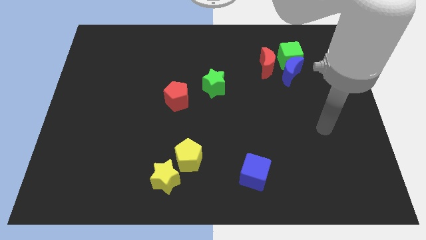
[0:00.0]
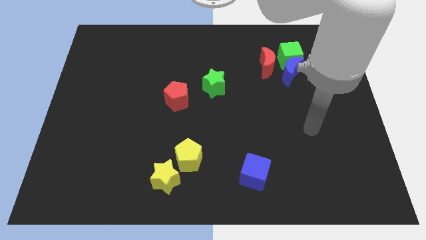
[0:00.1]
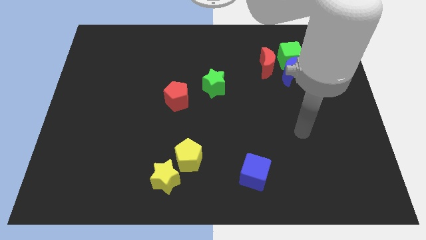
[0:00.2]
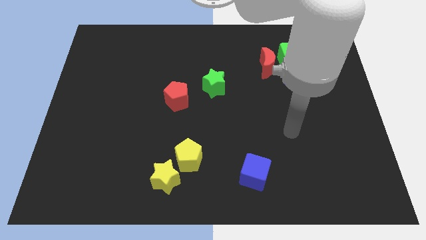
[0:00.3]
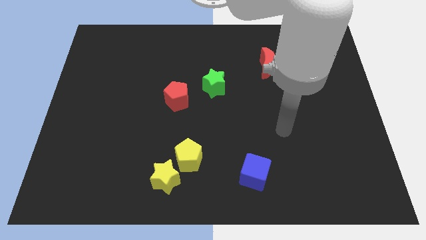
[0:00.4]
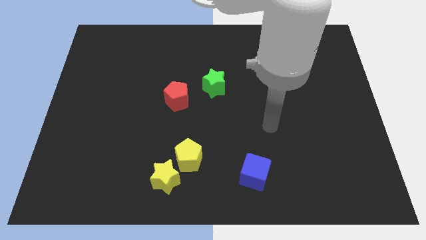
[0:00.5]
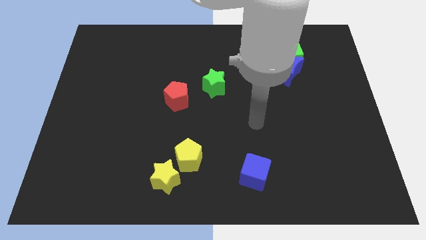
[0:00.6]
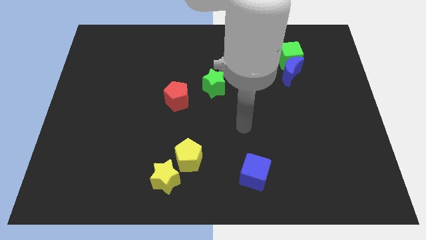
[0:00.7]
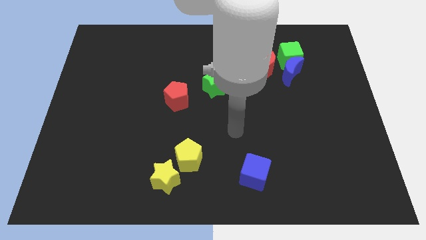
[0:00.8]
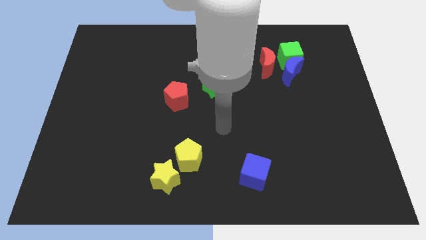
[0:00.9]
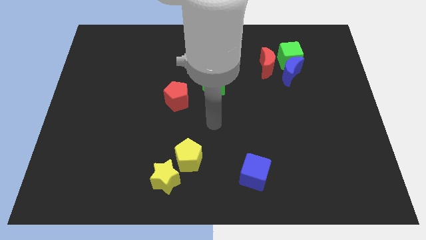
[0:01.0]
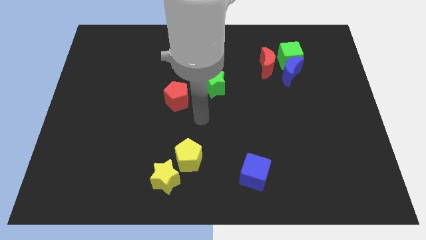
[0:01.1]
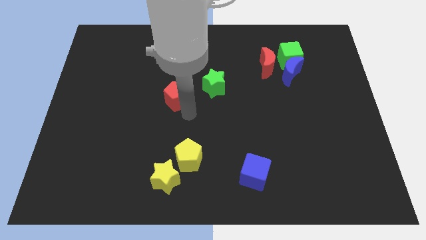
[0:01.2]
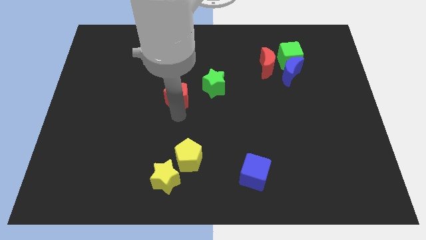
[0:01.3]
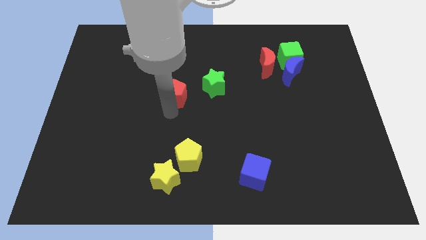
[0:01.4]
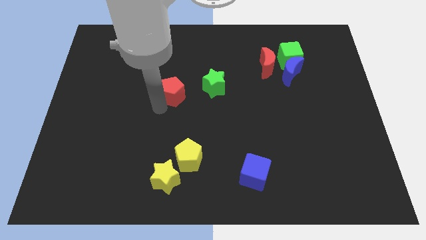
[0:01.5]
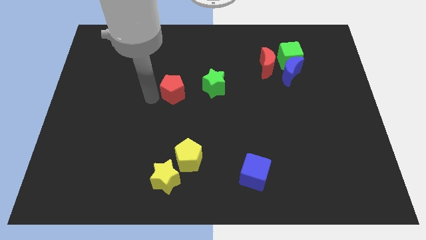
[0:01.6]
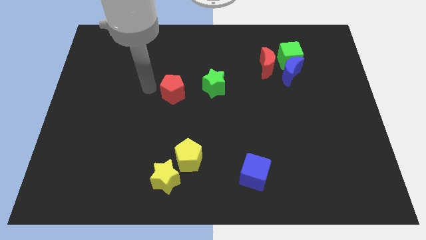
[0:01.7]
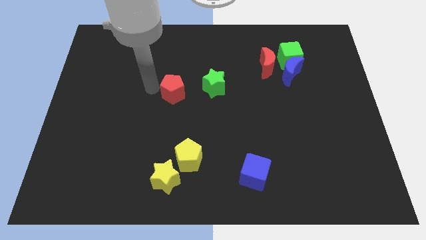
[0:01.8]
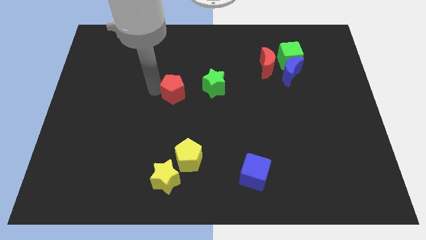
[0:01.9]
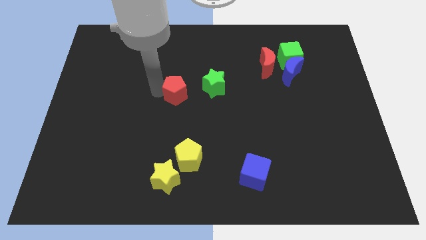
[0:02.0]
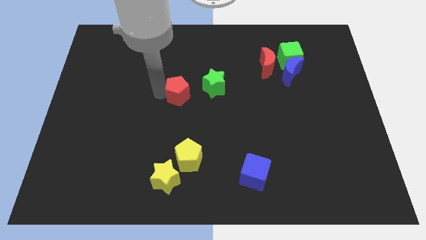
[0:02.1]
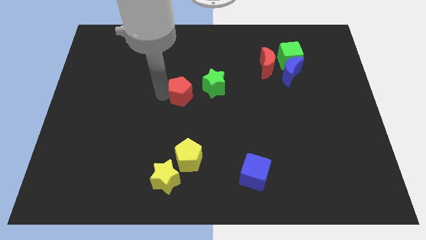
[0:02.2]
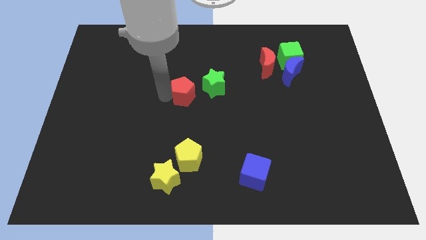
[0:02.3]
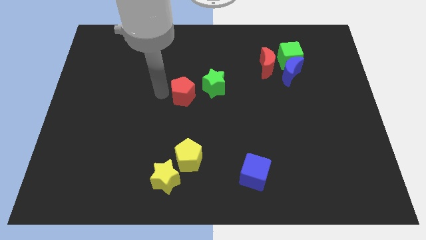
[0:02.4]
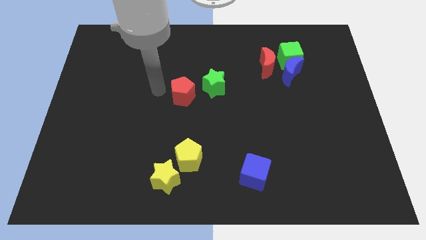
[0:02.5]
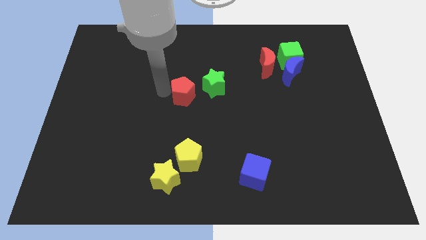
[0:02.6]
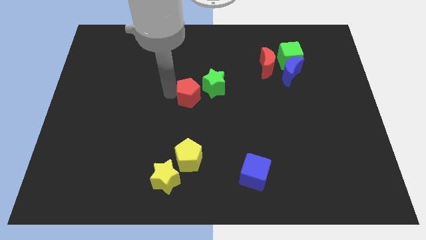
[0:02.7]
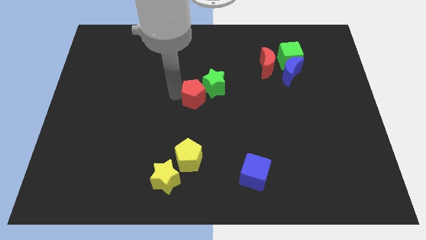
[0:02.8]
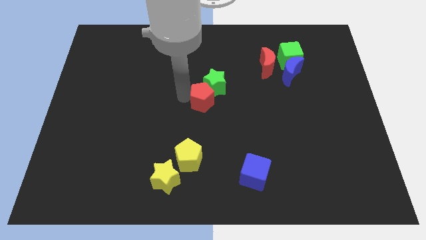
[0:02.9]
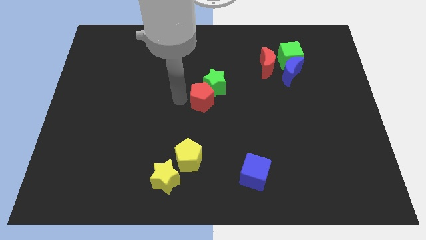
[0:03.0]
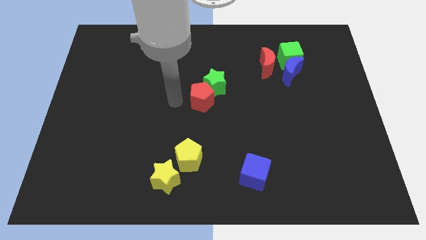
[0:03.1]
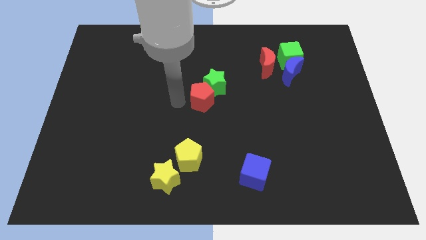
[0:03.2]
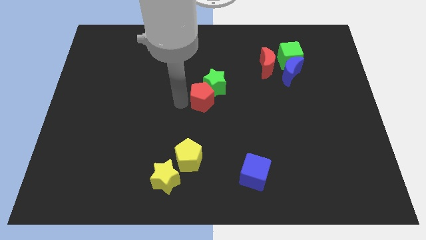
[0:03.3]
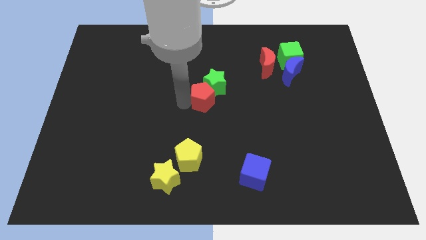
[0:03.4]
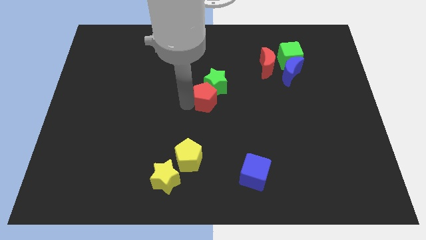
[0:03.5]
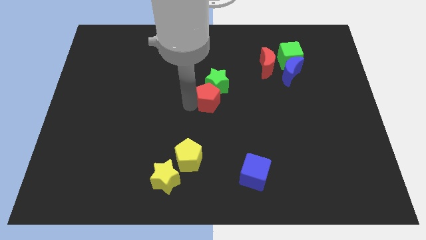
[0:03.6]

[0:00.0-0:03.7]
move the red pentagon a bit right

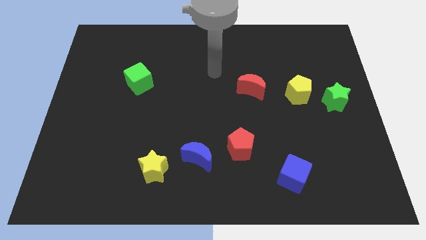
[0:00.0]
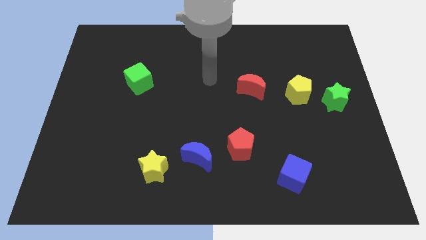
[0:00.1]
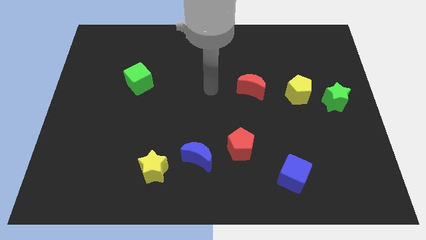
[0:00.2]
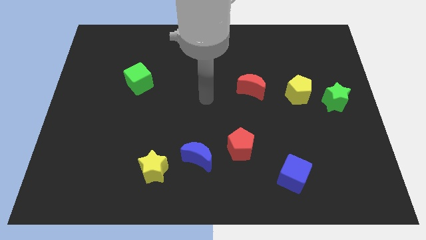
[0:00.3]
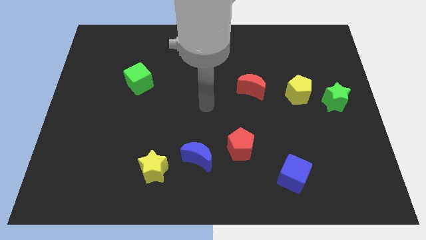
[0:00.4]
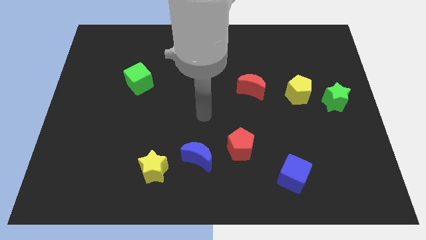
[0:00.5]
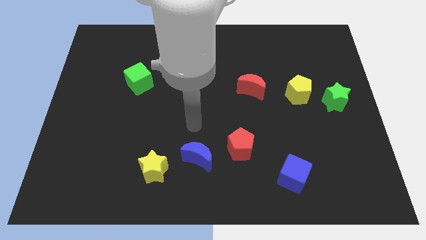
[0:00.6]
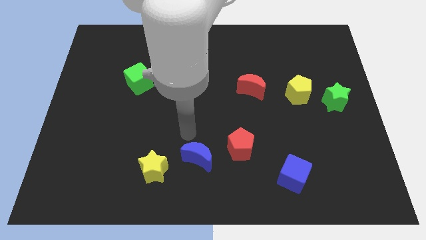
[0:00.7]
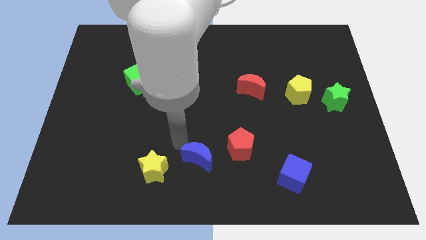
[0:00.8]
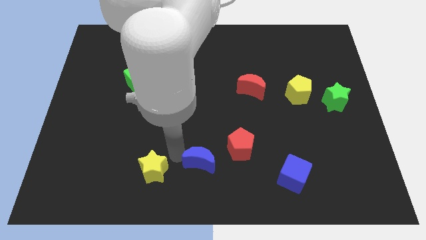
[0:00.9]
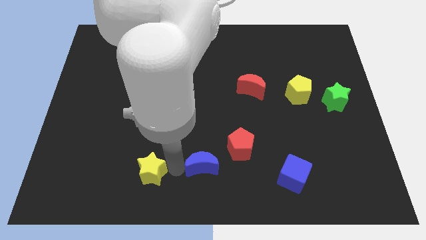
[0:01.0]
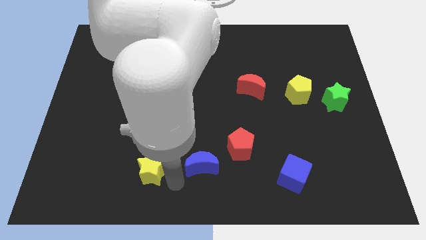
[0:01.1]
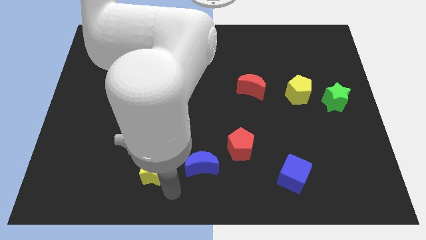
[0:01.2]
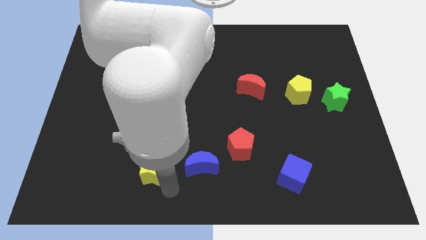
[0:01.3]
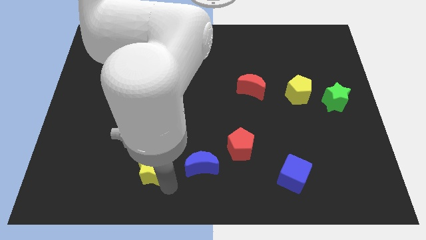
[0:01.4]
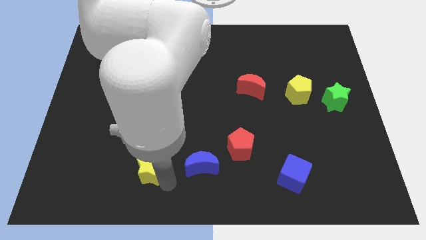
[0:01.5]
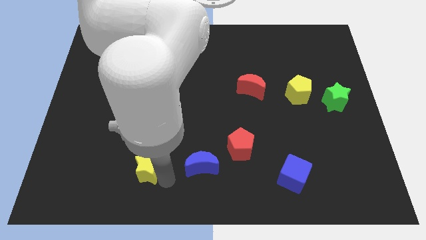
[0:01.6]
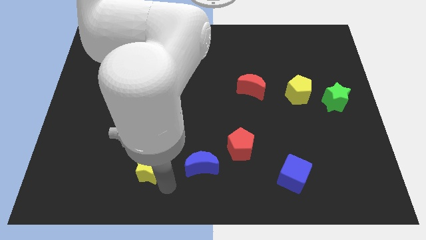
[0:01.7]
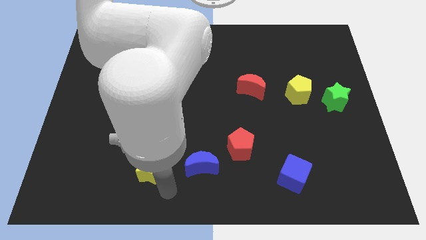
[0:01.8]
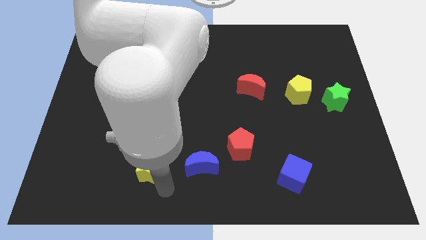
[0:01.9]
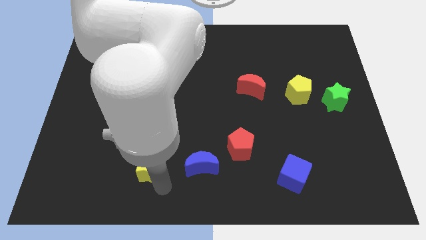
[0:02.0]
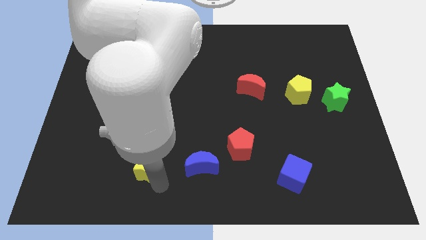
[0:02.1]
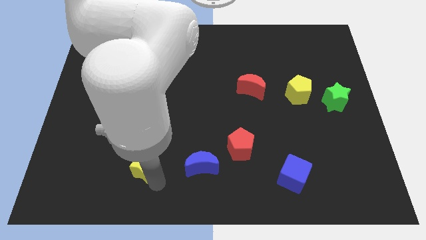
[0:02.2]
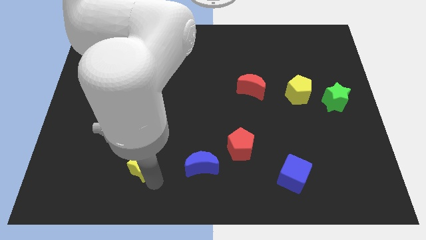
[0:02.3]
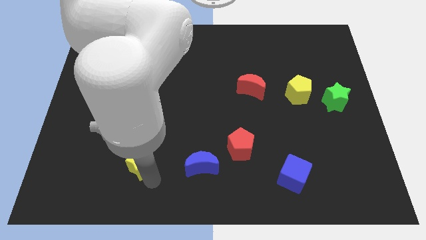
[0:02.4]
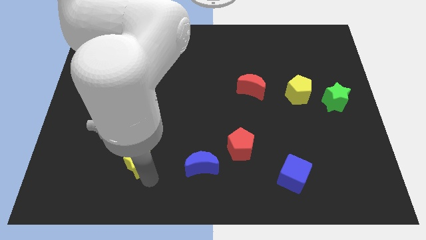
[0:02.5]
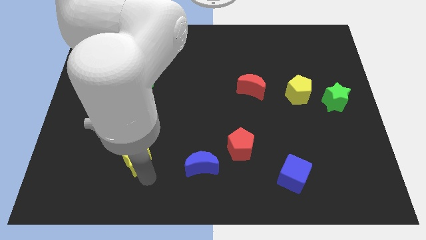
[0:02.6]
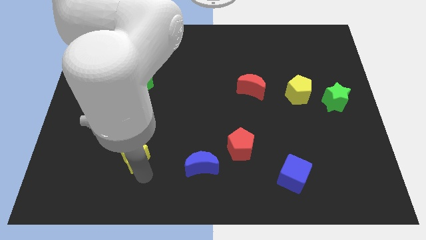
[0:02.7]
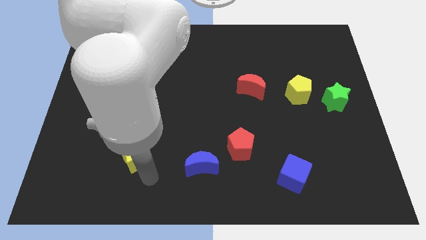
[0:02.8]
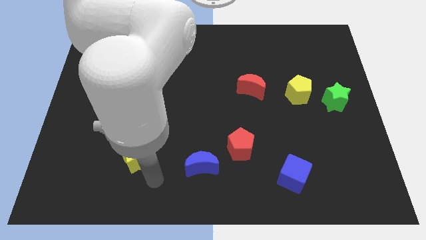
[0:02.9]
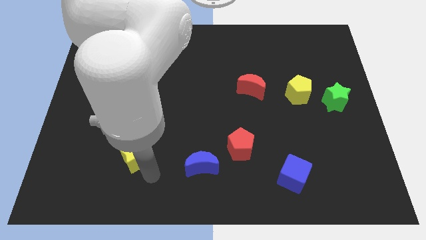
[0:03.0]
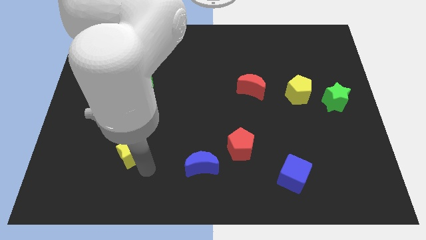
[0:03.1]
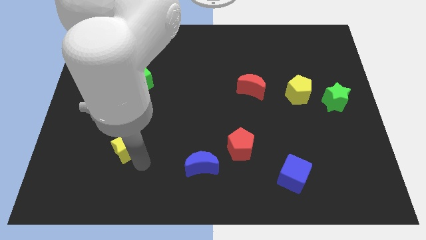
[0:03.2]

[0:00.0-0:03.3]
push the yellow star upwards and then to the left slightly

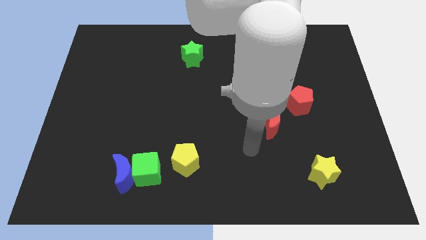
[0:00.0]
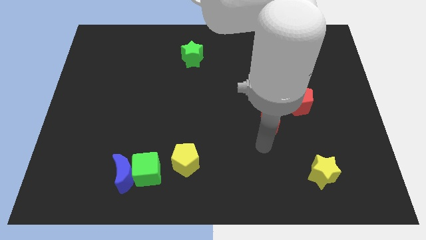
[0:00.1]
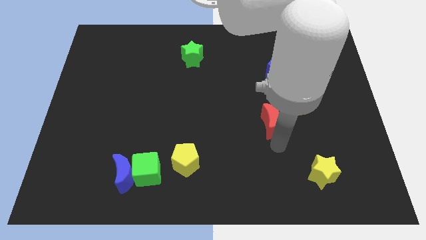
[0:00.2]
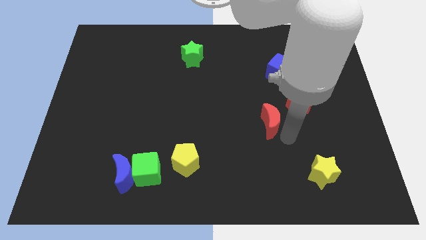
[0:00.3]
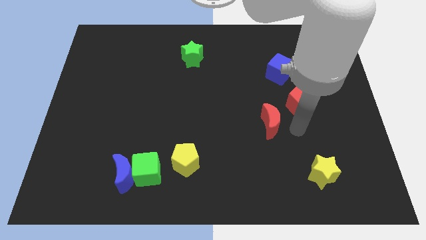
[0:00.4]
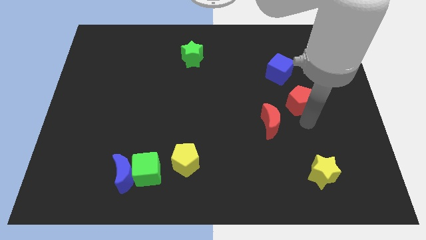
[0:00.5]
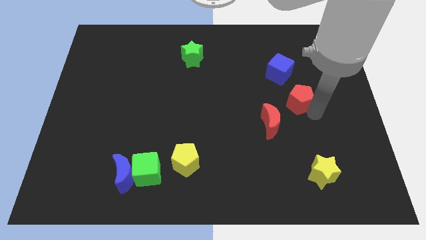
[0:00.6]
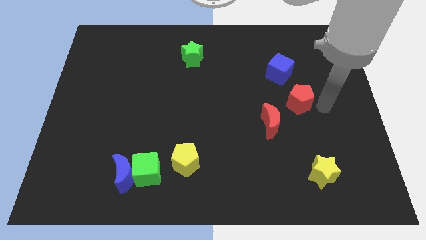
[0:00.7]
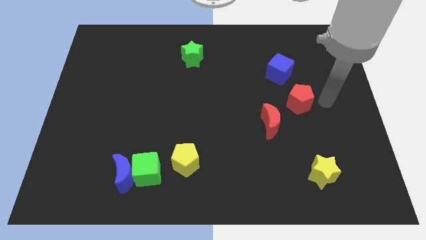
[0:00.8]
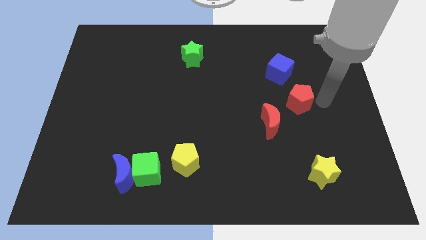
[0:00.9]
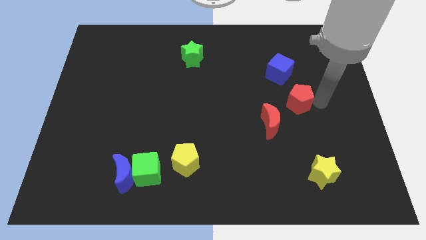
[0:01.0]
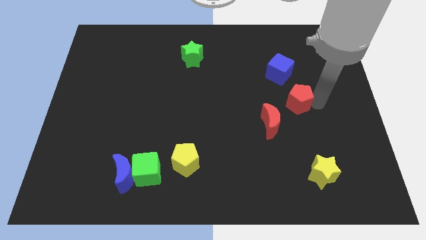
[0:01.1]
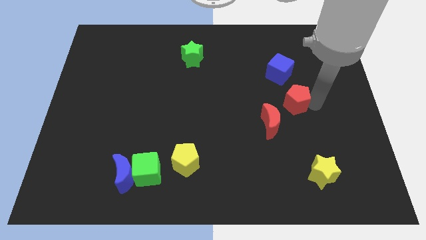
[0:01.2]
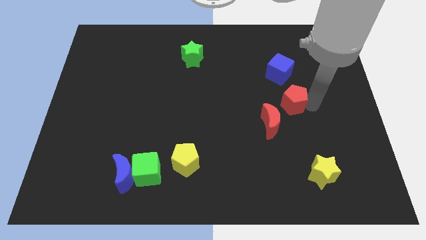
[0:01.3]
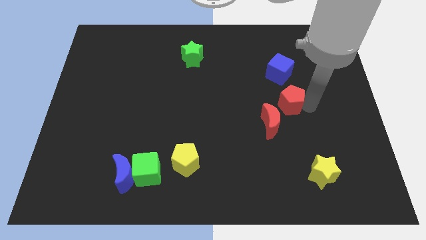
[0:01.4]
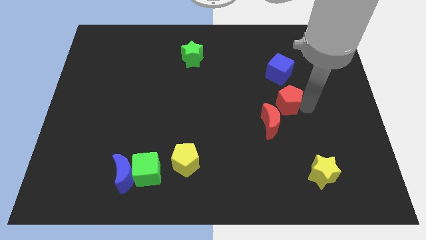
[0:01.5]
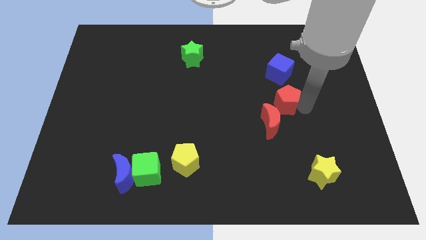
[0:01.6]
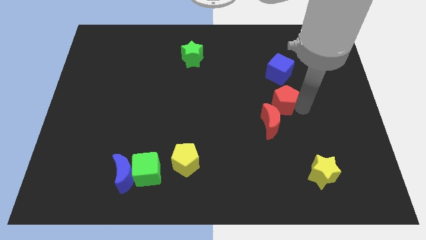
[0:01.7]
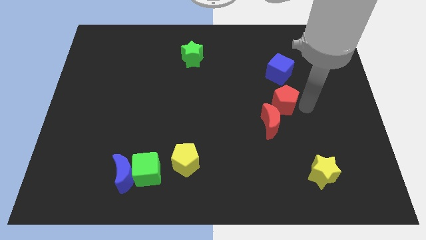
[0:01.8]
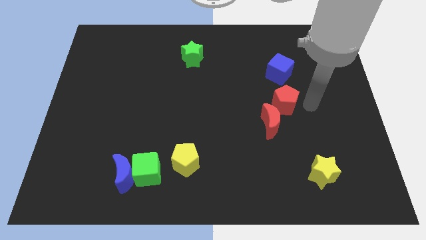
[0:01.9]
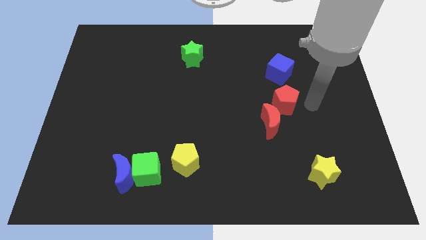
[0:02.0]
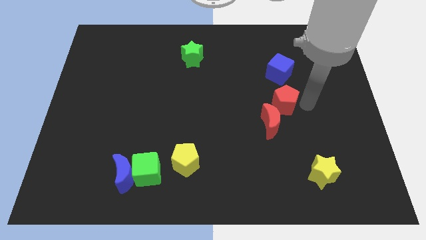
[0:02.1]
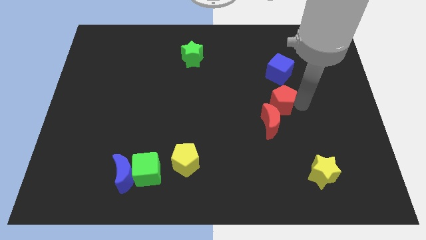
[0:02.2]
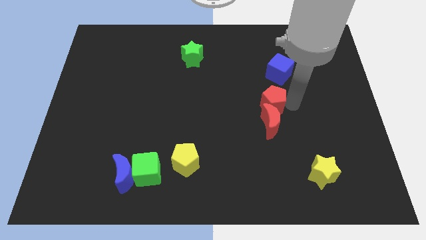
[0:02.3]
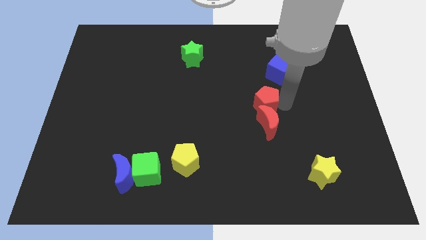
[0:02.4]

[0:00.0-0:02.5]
slightly push the red pentagon left
